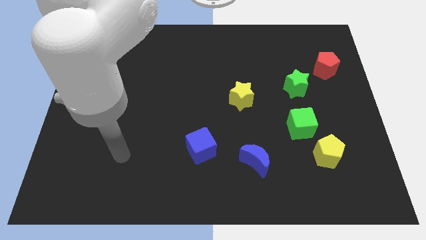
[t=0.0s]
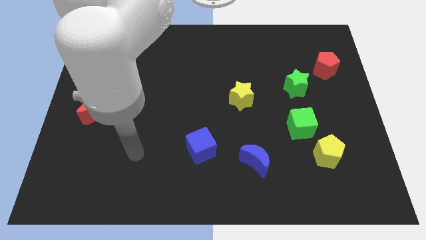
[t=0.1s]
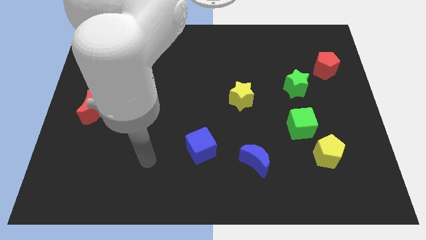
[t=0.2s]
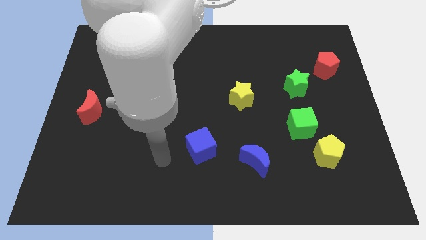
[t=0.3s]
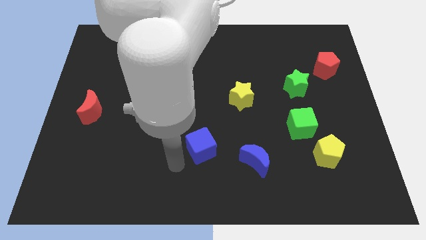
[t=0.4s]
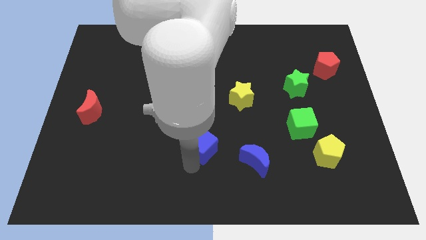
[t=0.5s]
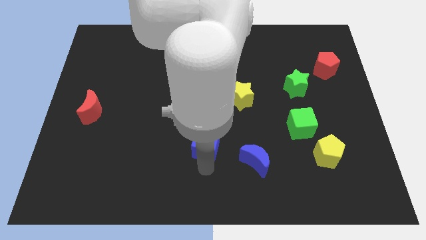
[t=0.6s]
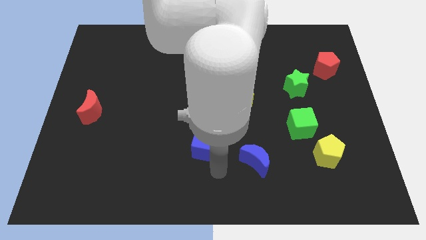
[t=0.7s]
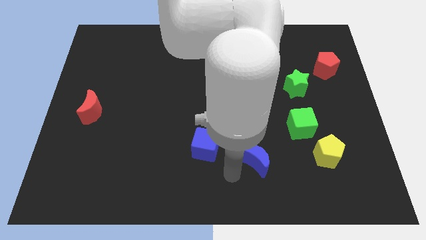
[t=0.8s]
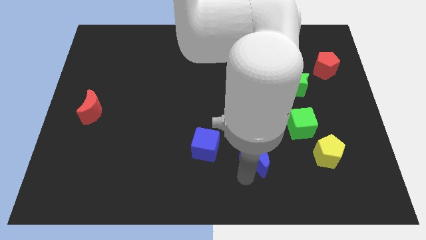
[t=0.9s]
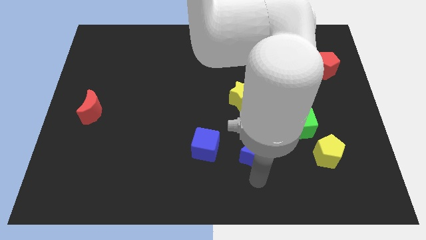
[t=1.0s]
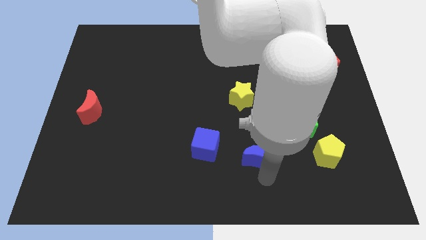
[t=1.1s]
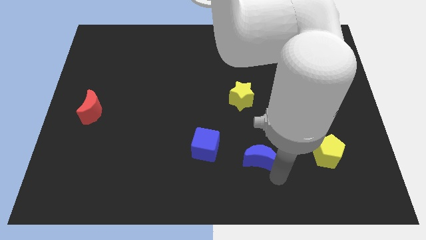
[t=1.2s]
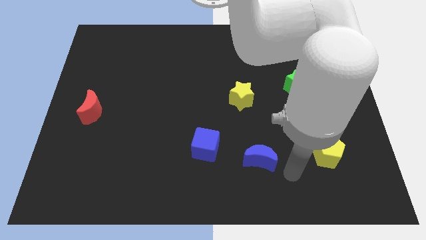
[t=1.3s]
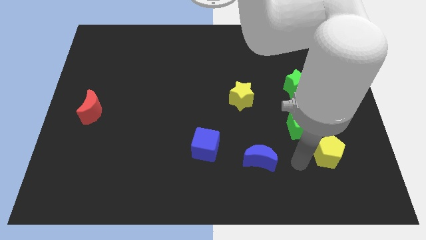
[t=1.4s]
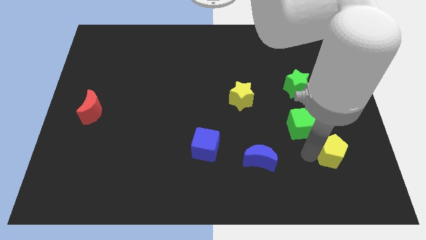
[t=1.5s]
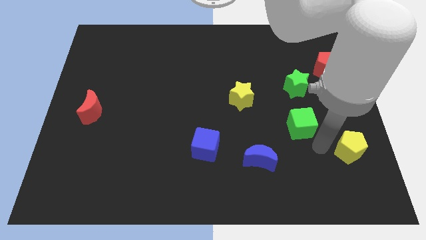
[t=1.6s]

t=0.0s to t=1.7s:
move the green cube away from the yellow pentagon

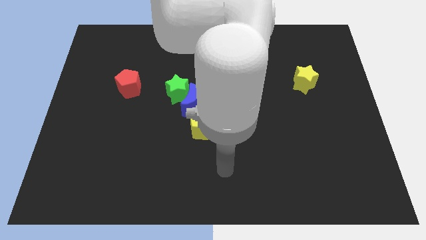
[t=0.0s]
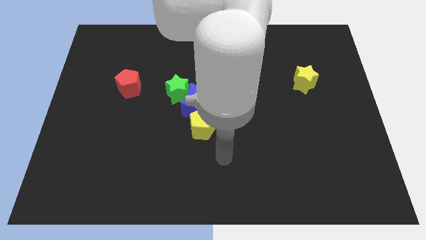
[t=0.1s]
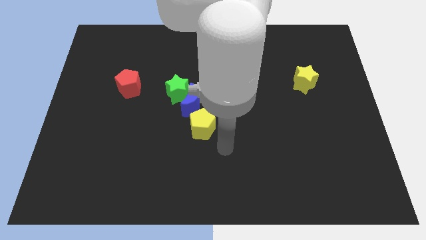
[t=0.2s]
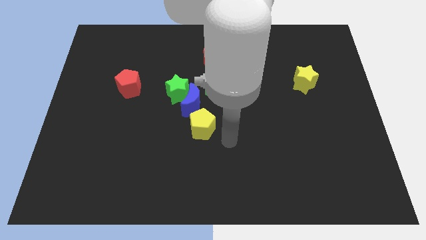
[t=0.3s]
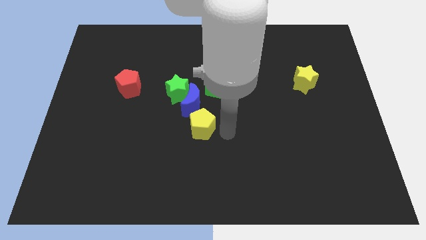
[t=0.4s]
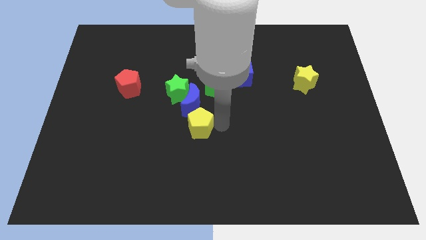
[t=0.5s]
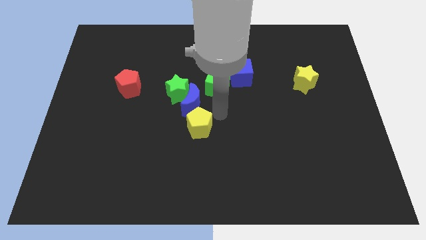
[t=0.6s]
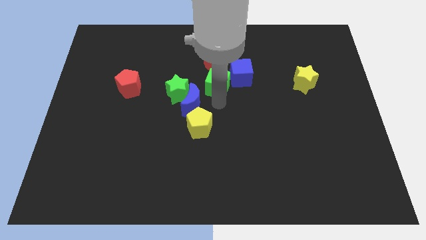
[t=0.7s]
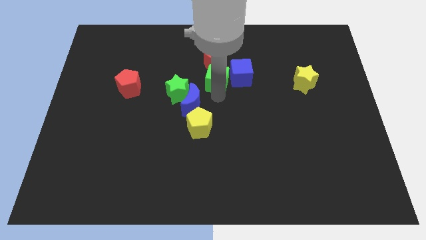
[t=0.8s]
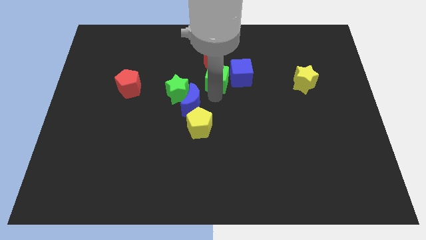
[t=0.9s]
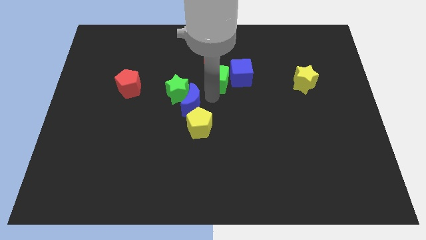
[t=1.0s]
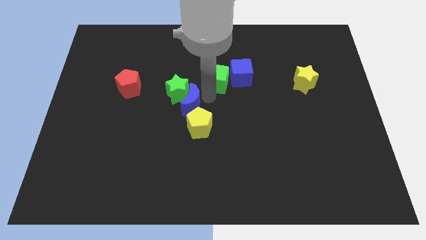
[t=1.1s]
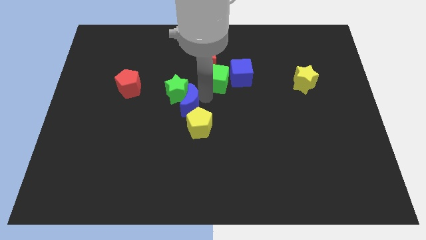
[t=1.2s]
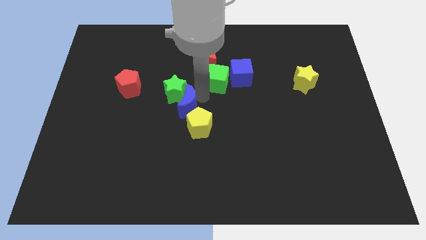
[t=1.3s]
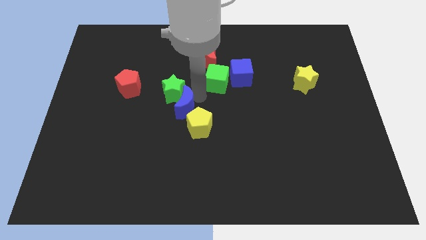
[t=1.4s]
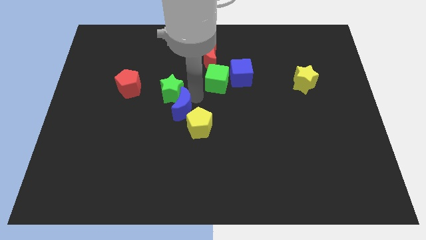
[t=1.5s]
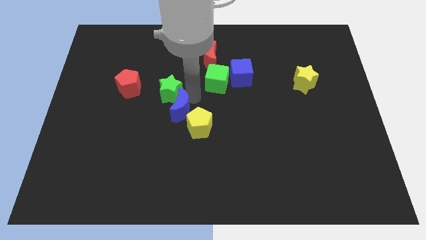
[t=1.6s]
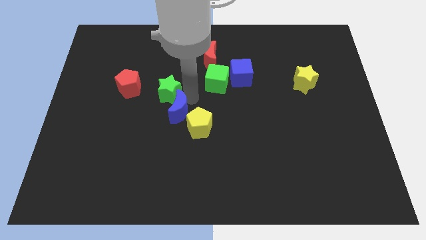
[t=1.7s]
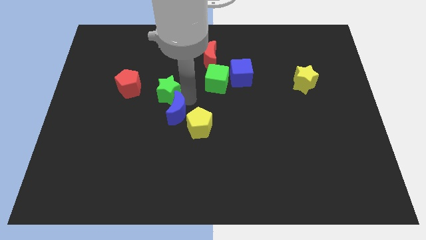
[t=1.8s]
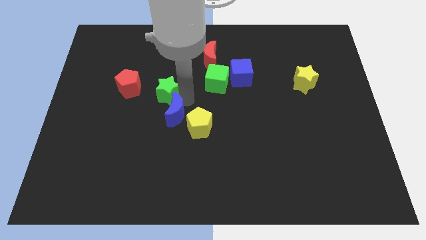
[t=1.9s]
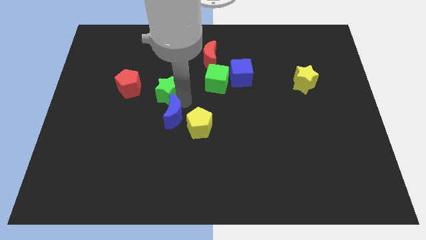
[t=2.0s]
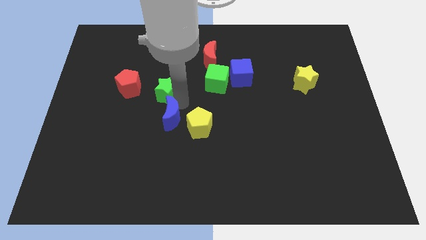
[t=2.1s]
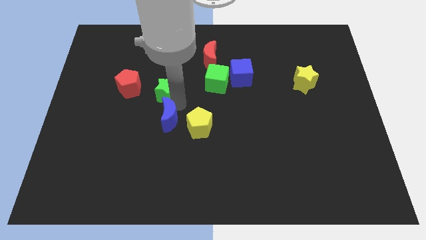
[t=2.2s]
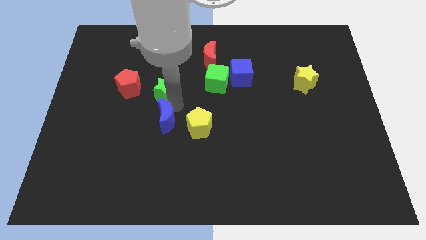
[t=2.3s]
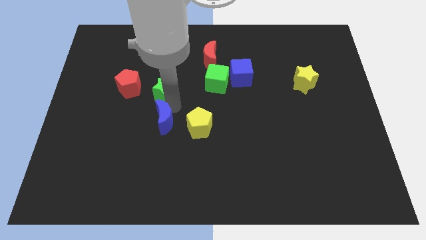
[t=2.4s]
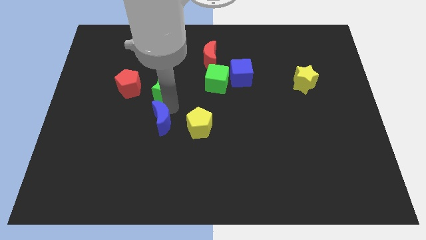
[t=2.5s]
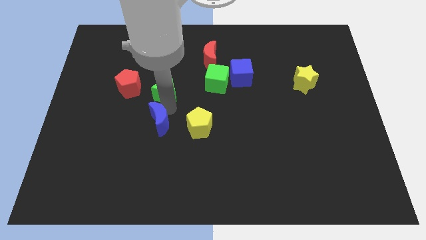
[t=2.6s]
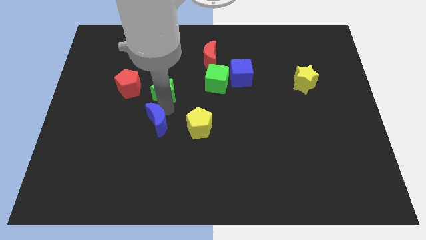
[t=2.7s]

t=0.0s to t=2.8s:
move the blue moon away from the green star, yellow pentagon, and green cube

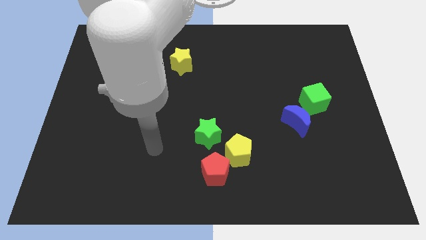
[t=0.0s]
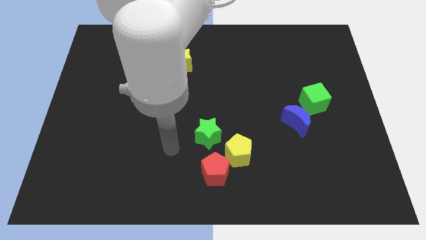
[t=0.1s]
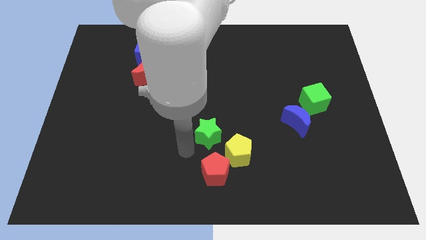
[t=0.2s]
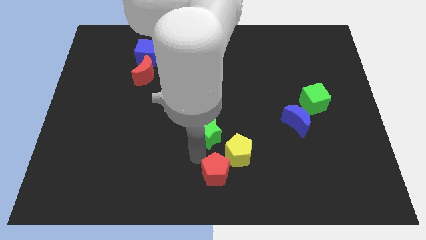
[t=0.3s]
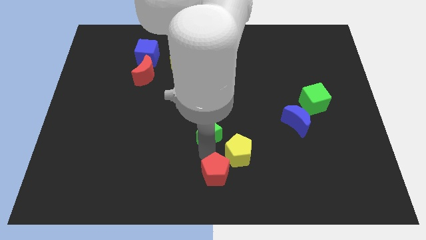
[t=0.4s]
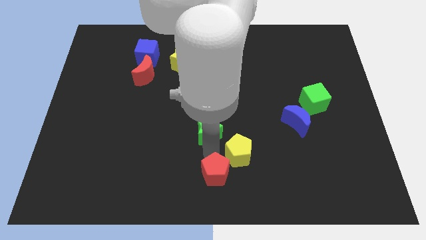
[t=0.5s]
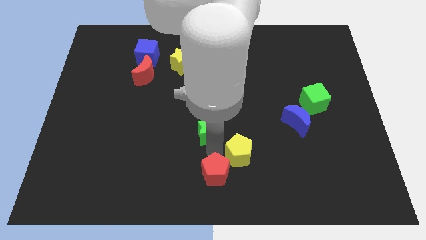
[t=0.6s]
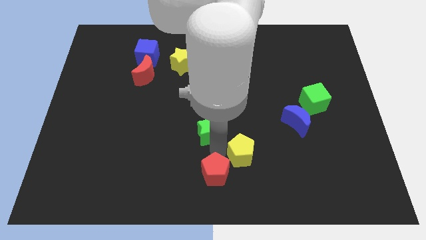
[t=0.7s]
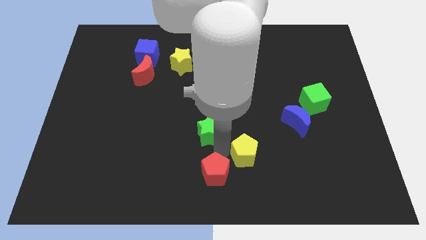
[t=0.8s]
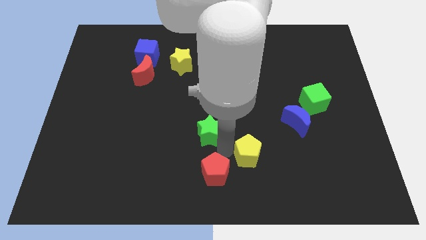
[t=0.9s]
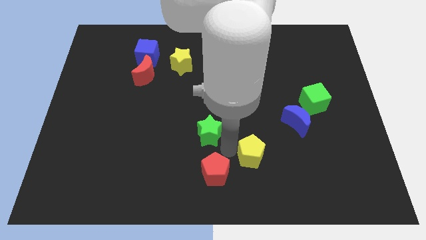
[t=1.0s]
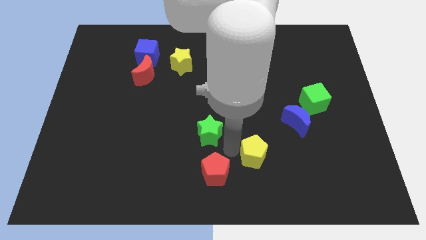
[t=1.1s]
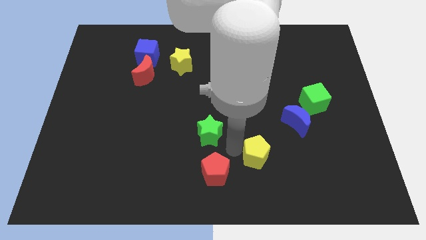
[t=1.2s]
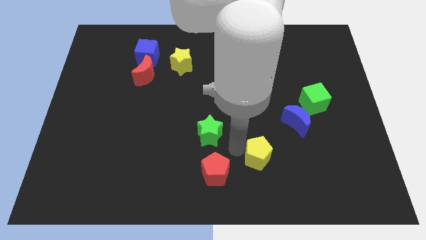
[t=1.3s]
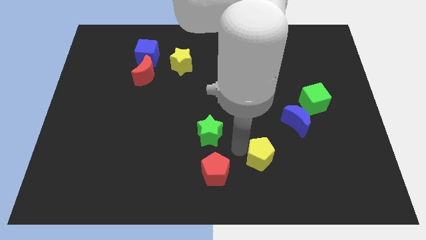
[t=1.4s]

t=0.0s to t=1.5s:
pull the yellow pentagon apart from the red pentagon and green star

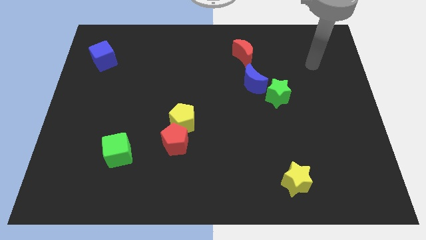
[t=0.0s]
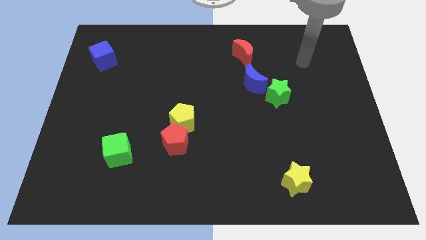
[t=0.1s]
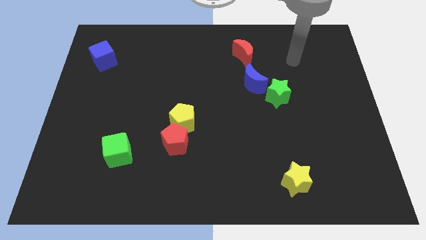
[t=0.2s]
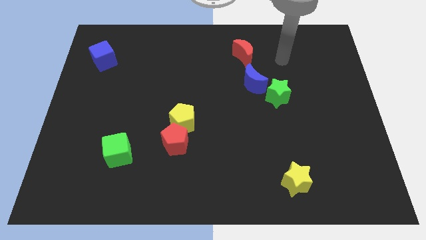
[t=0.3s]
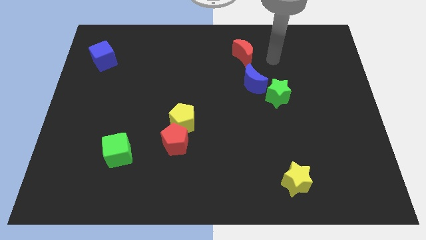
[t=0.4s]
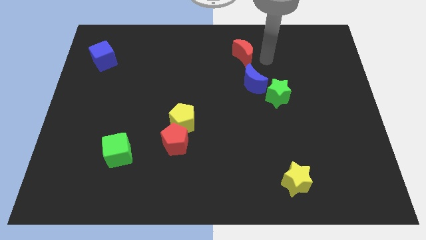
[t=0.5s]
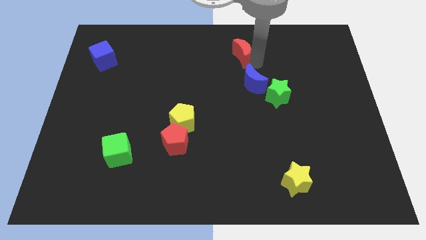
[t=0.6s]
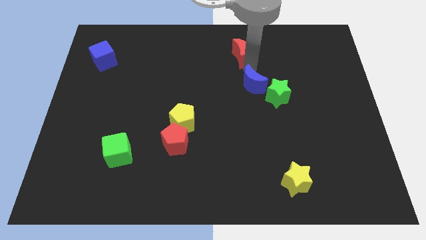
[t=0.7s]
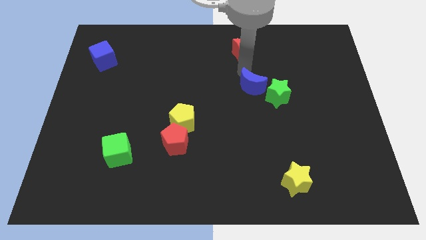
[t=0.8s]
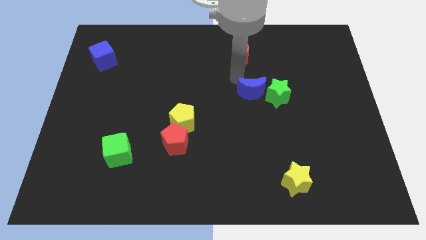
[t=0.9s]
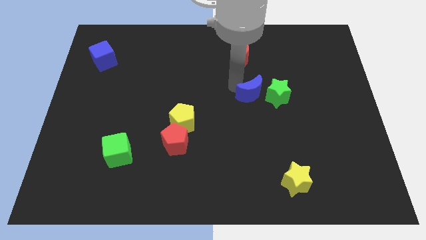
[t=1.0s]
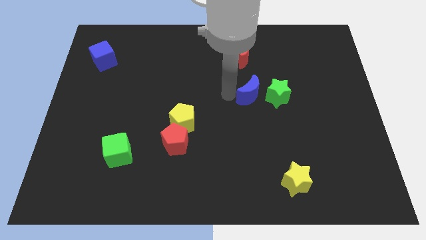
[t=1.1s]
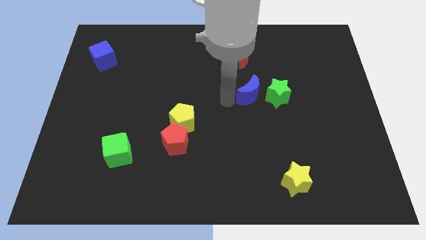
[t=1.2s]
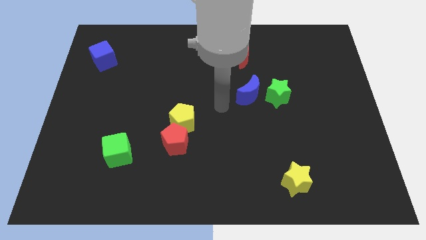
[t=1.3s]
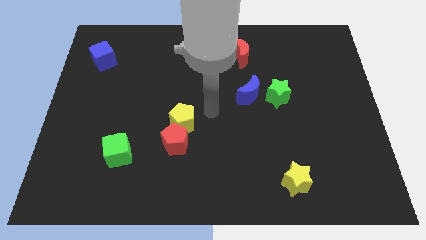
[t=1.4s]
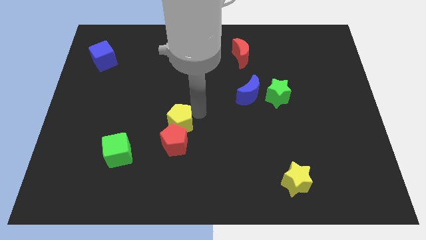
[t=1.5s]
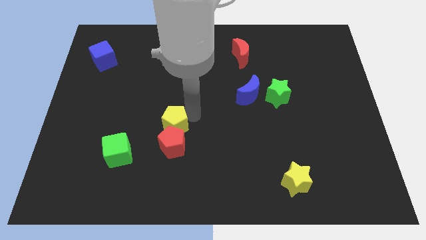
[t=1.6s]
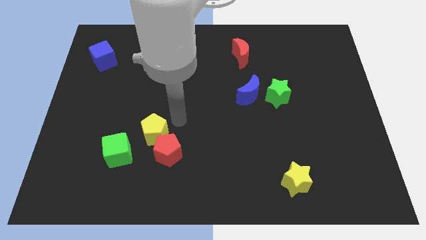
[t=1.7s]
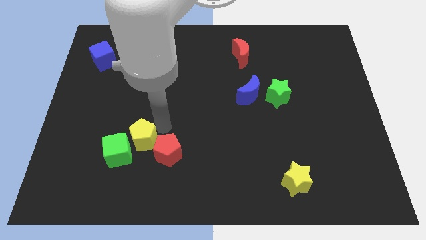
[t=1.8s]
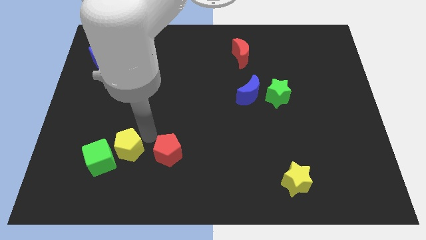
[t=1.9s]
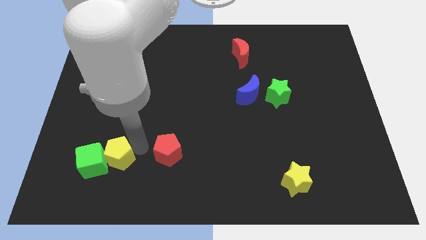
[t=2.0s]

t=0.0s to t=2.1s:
pull the red pentagon apart from the yellow pentagon

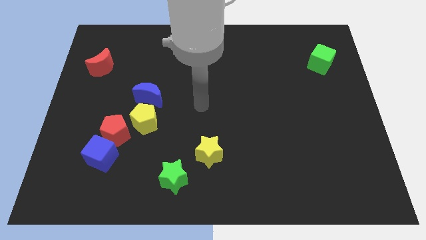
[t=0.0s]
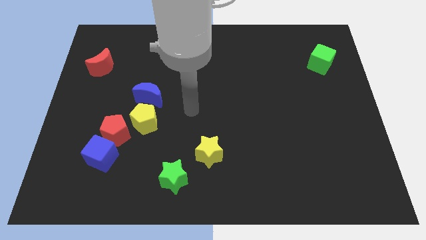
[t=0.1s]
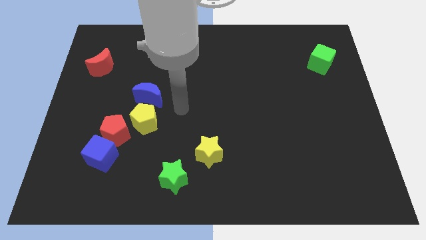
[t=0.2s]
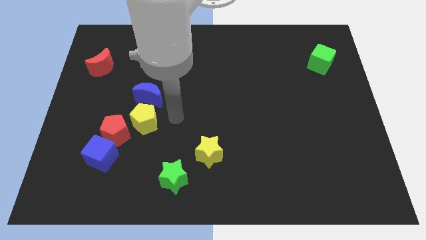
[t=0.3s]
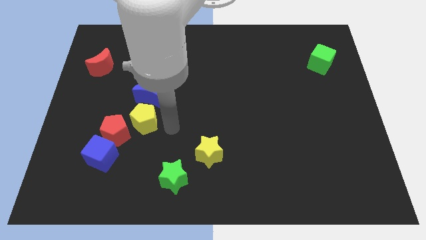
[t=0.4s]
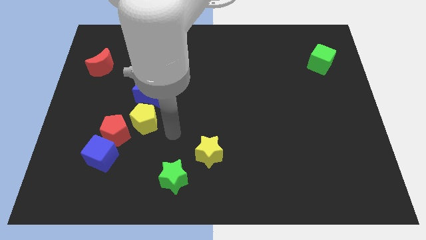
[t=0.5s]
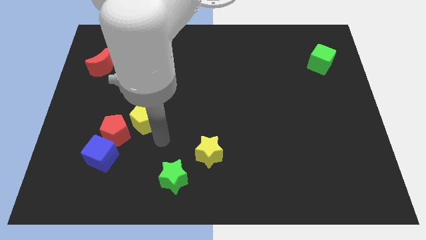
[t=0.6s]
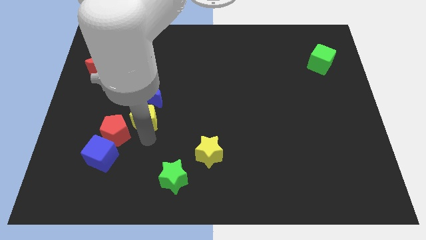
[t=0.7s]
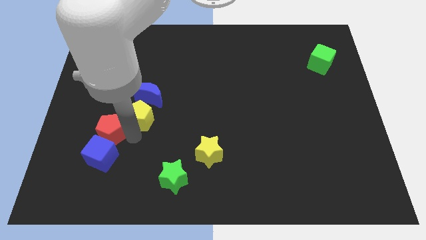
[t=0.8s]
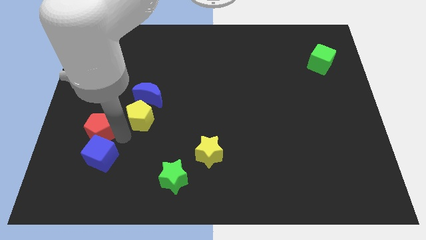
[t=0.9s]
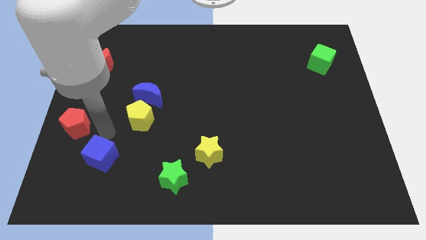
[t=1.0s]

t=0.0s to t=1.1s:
separate the blue cube from the red pentagon
